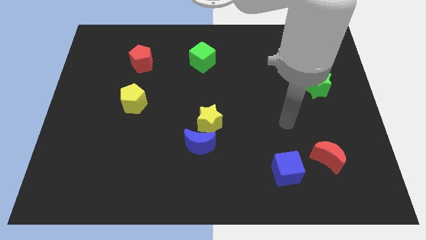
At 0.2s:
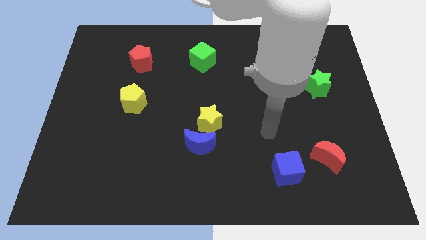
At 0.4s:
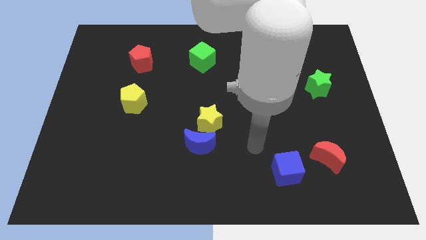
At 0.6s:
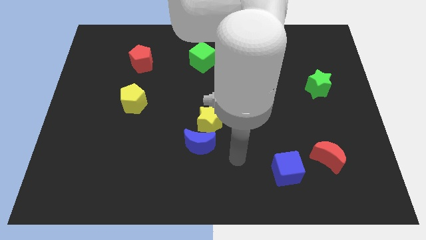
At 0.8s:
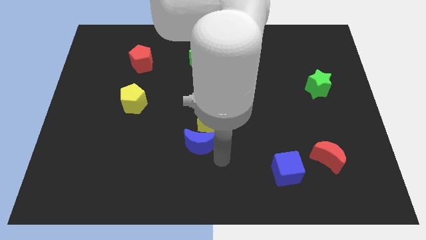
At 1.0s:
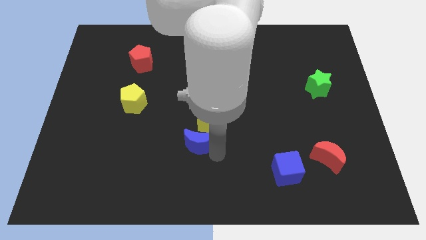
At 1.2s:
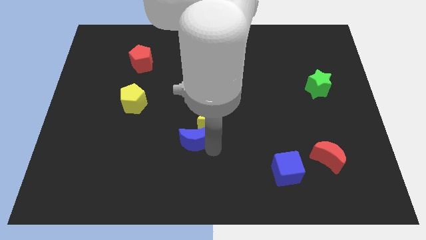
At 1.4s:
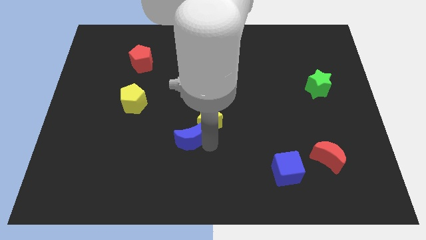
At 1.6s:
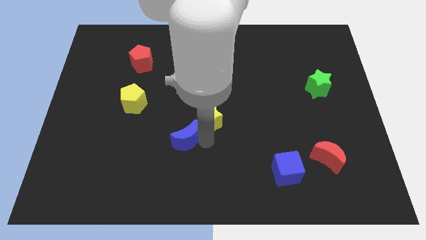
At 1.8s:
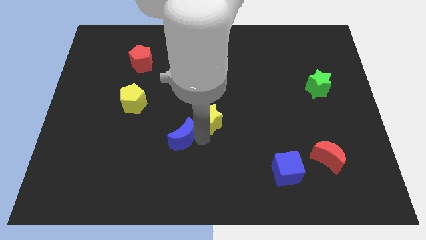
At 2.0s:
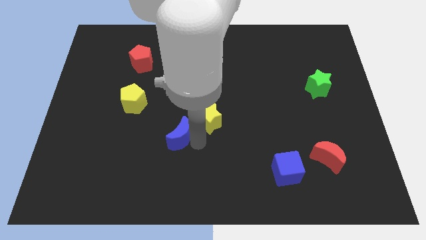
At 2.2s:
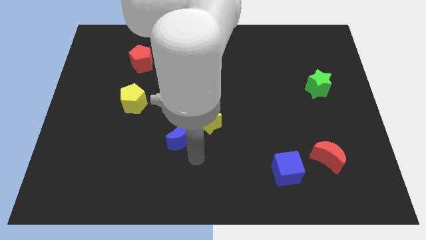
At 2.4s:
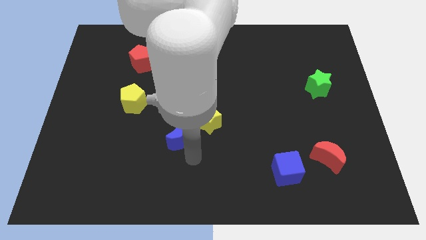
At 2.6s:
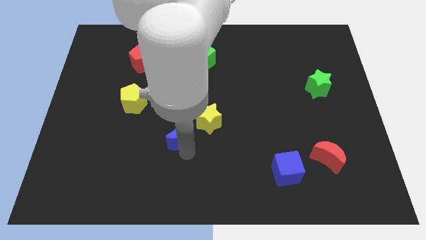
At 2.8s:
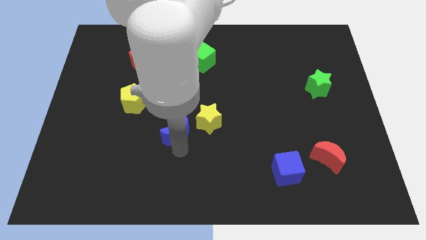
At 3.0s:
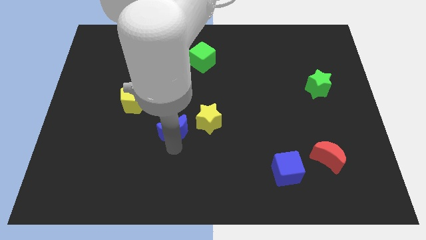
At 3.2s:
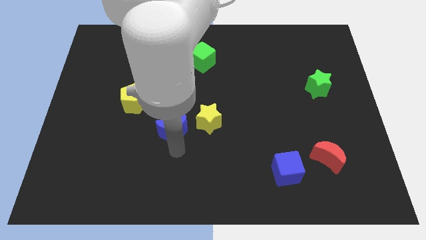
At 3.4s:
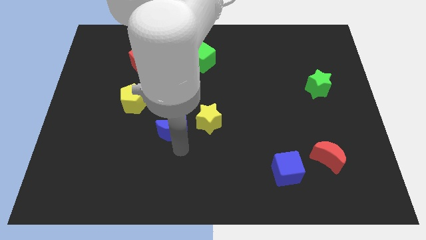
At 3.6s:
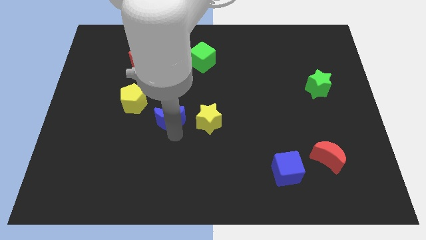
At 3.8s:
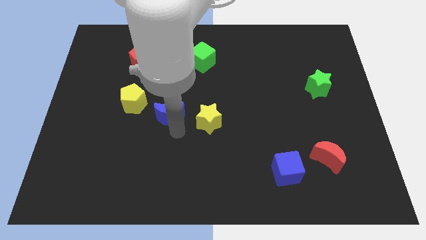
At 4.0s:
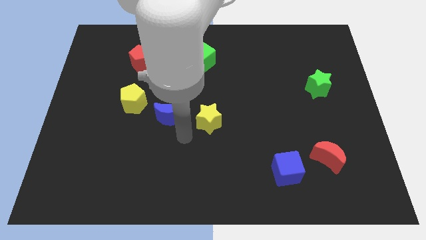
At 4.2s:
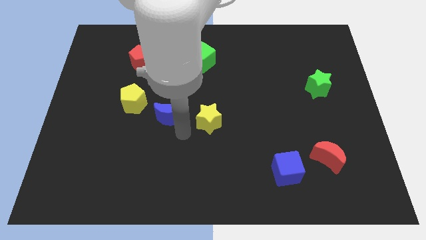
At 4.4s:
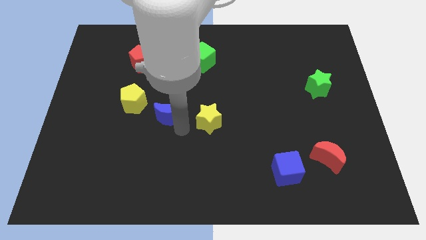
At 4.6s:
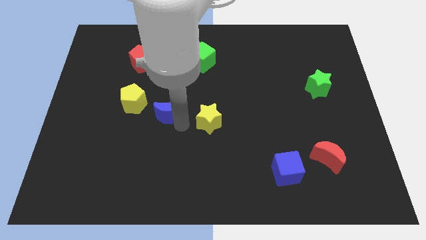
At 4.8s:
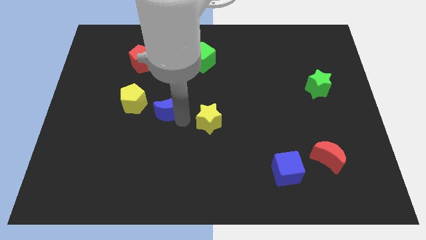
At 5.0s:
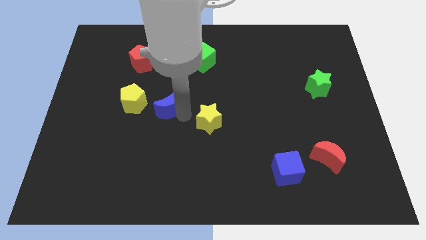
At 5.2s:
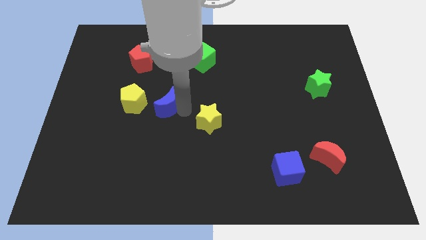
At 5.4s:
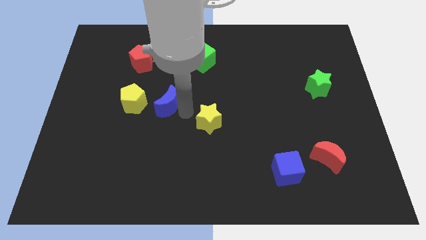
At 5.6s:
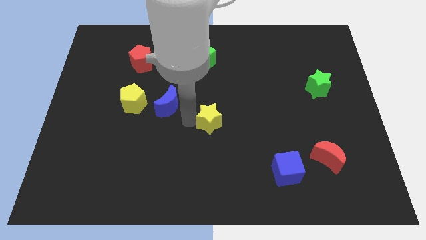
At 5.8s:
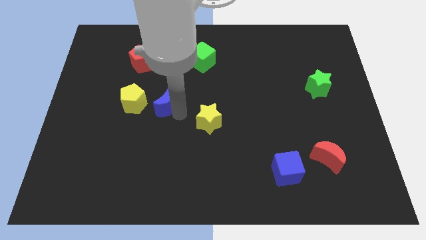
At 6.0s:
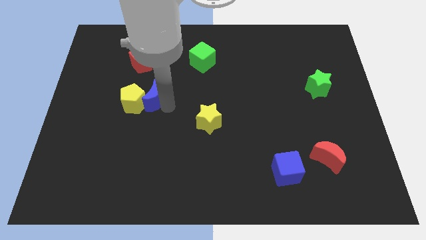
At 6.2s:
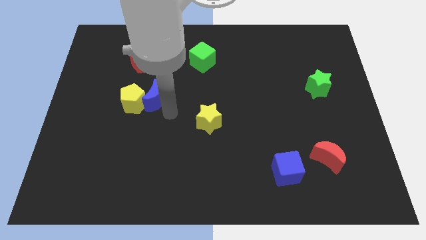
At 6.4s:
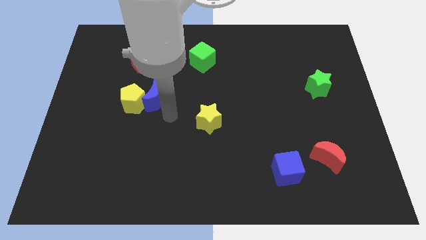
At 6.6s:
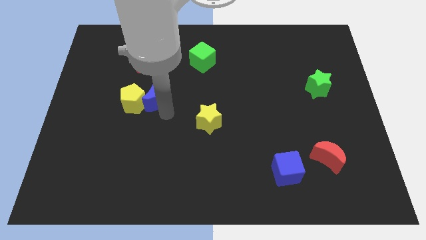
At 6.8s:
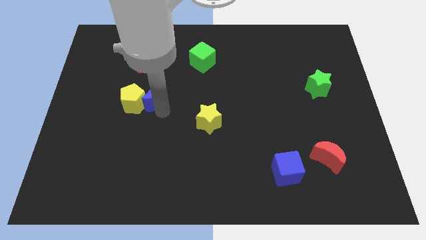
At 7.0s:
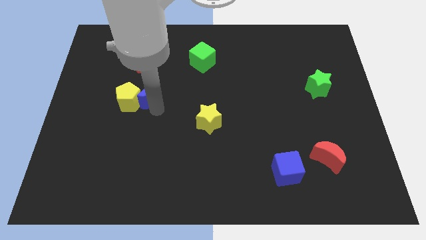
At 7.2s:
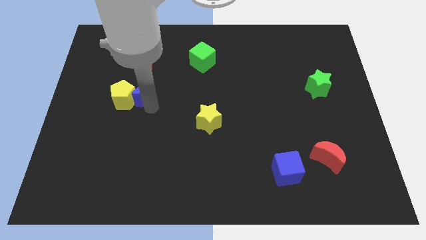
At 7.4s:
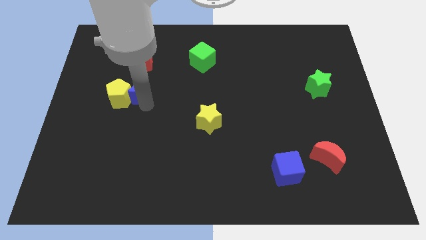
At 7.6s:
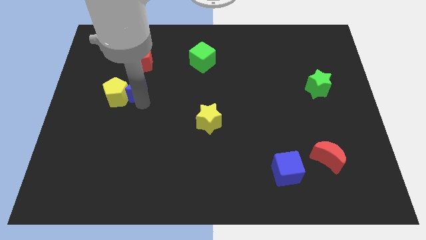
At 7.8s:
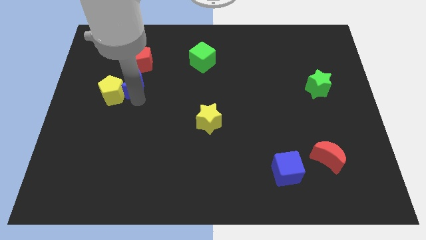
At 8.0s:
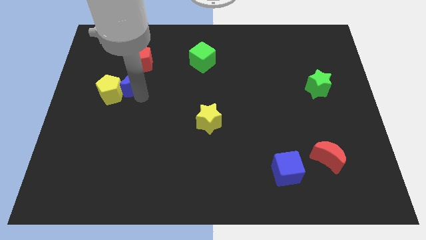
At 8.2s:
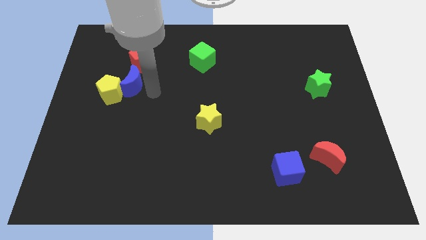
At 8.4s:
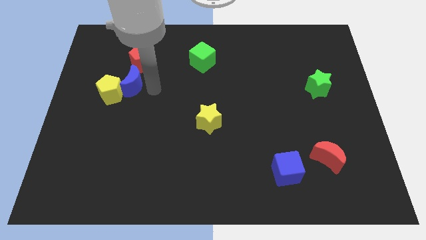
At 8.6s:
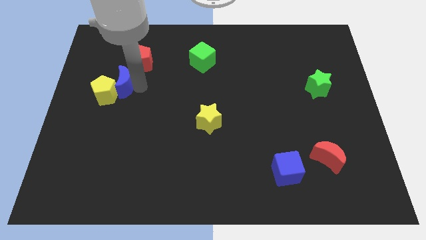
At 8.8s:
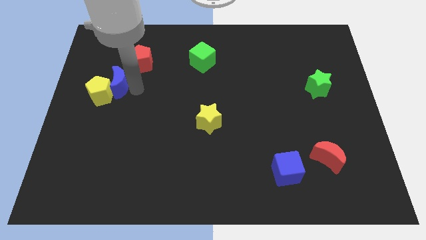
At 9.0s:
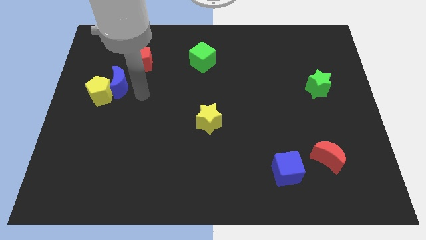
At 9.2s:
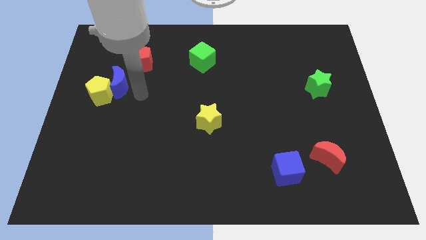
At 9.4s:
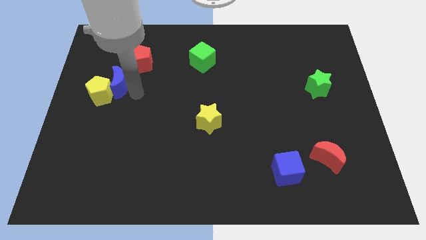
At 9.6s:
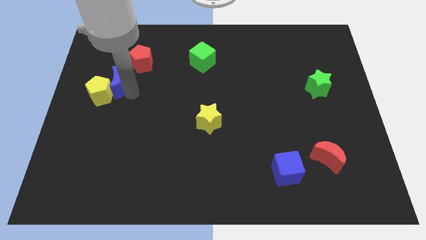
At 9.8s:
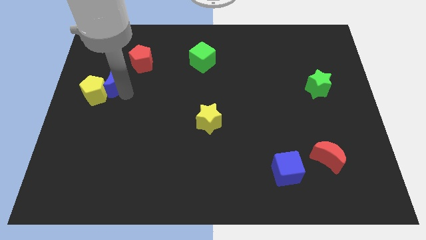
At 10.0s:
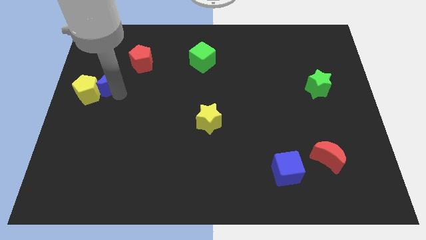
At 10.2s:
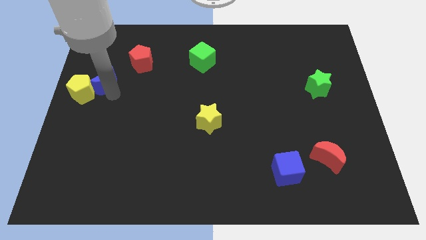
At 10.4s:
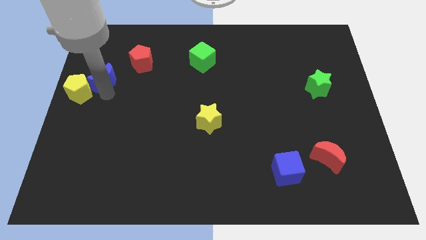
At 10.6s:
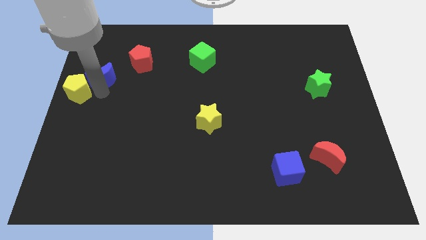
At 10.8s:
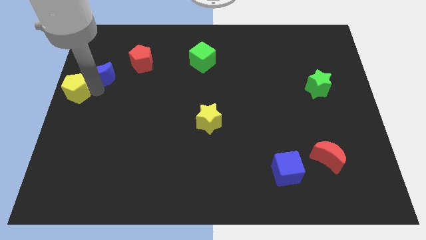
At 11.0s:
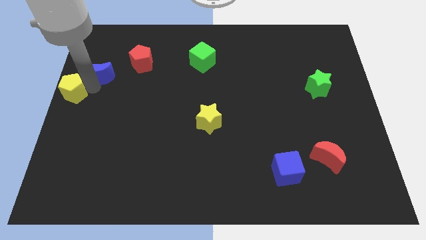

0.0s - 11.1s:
slide the blue moon to the left of the red pentagon

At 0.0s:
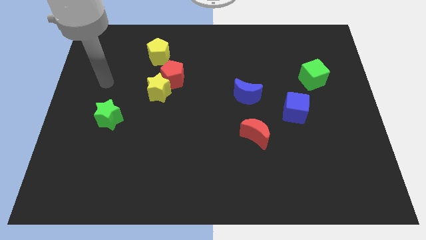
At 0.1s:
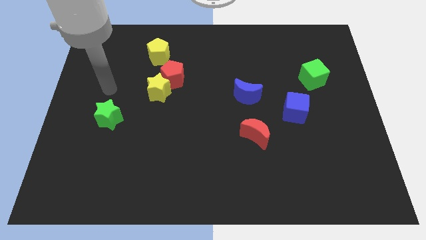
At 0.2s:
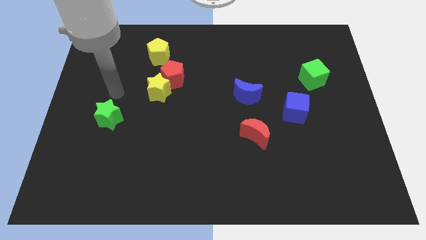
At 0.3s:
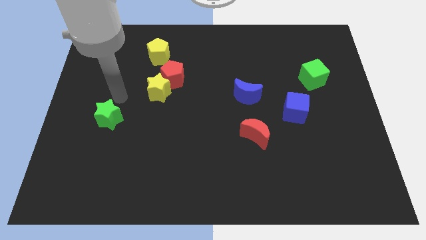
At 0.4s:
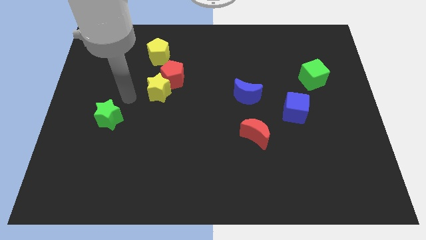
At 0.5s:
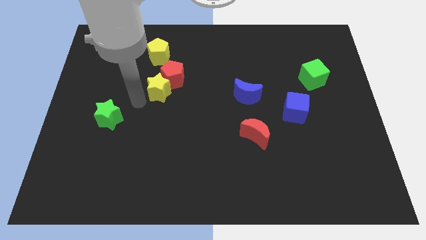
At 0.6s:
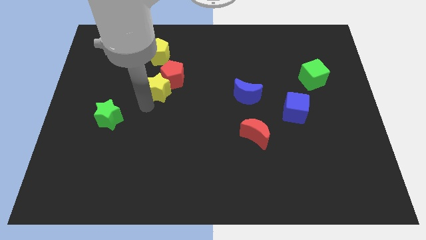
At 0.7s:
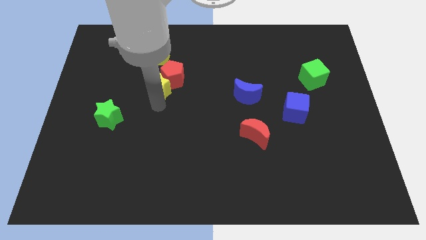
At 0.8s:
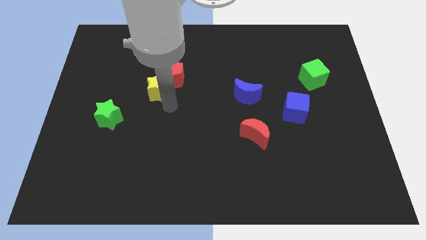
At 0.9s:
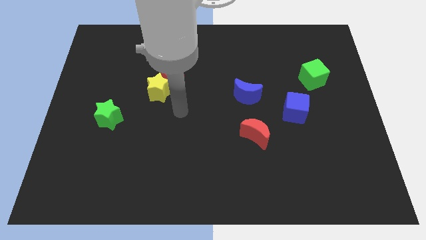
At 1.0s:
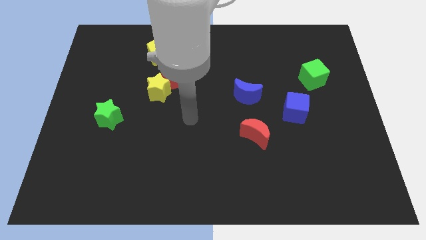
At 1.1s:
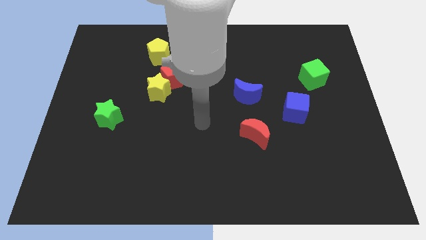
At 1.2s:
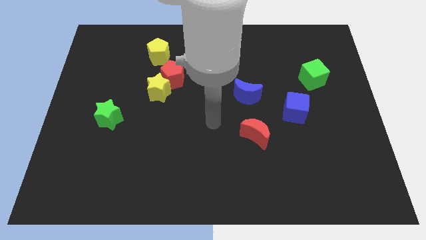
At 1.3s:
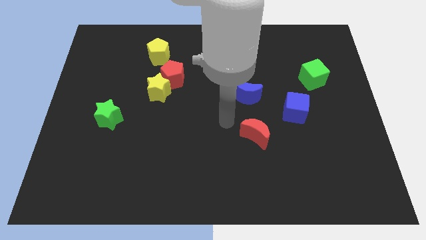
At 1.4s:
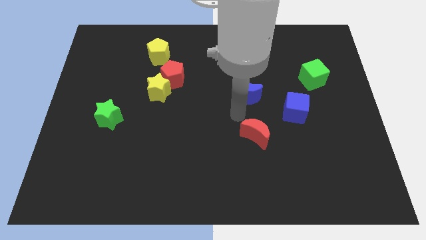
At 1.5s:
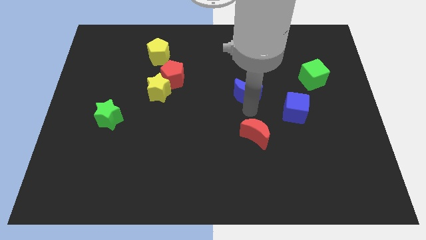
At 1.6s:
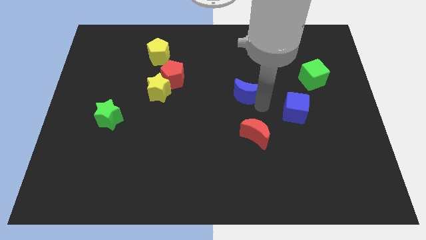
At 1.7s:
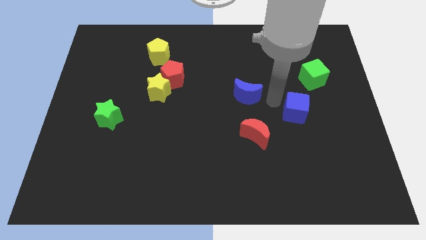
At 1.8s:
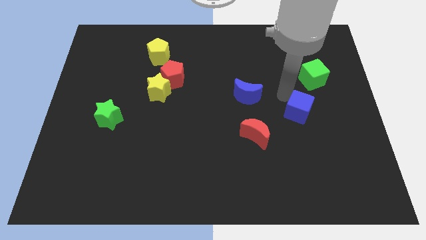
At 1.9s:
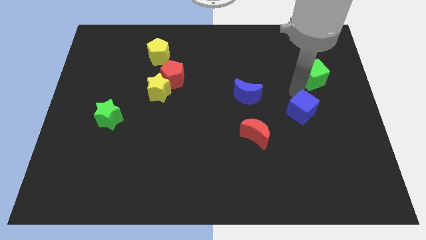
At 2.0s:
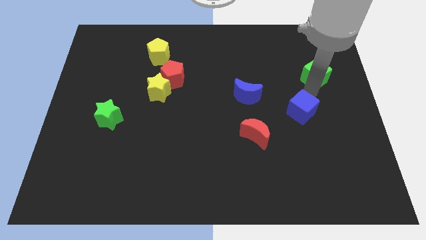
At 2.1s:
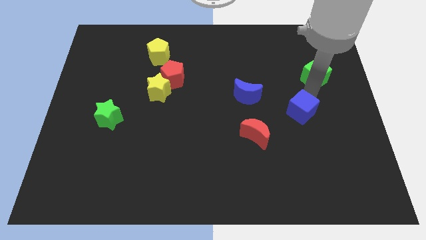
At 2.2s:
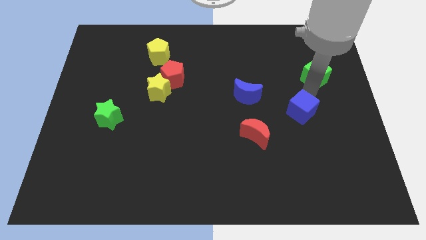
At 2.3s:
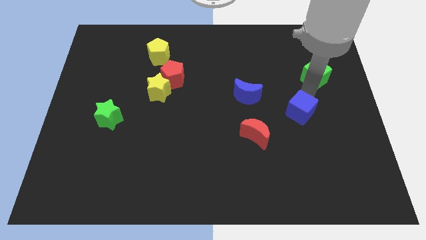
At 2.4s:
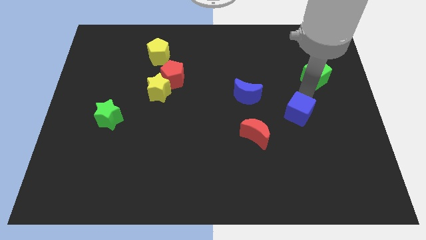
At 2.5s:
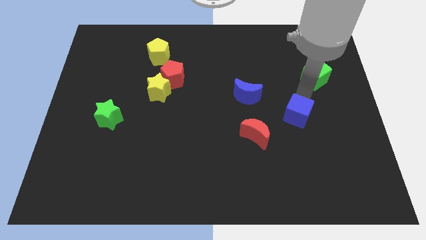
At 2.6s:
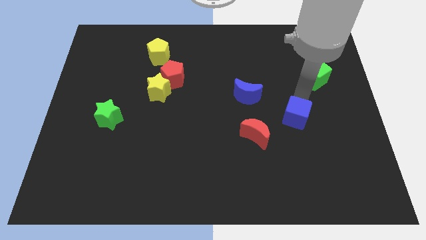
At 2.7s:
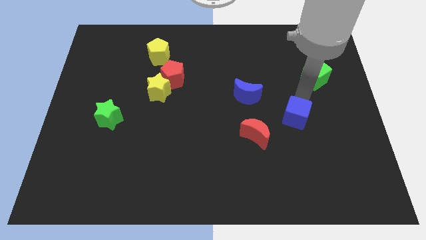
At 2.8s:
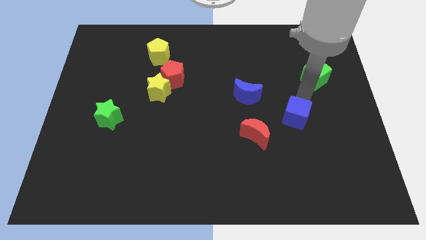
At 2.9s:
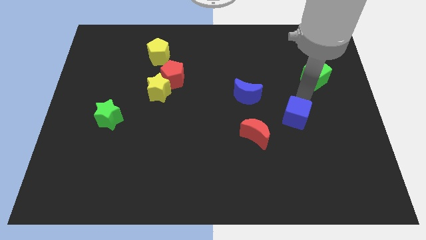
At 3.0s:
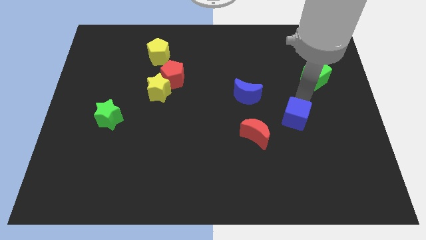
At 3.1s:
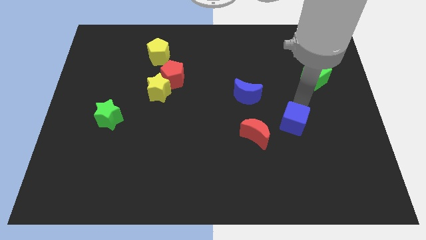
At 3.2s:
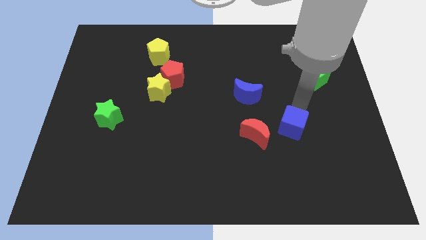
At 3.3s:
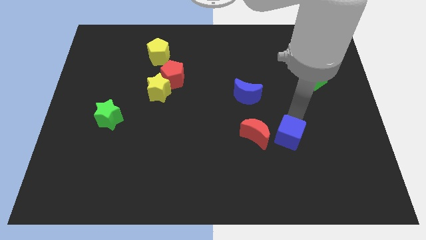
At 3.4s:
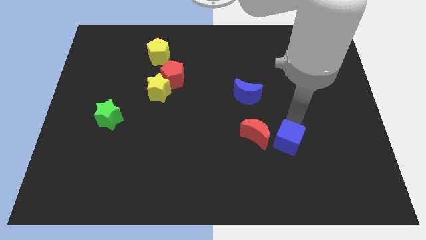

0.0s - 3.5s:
move the blue cube diagonally down and to the right of the red moon
